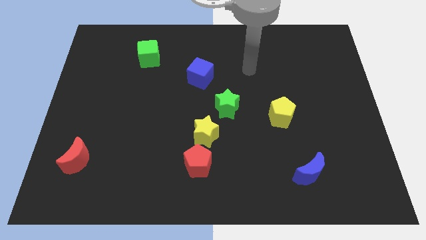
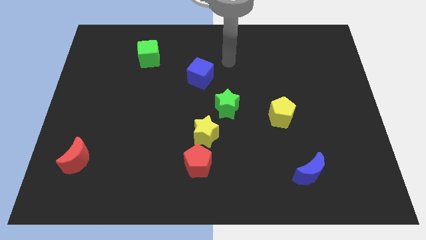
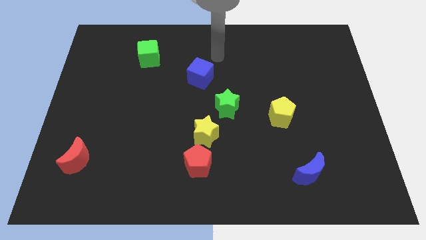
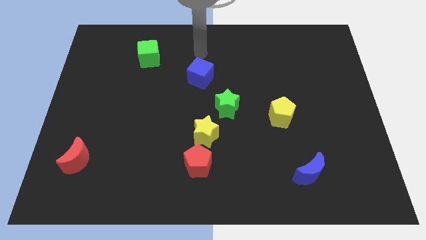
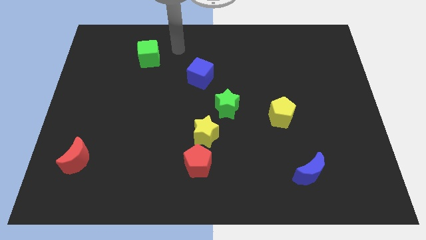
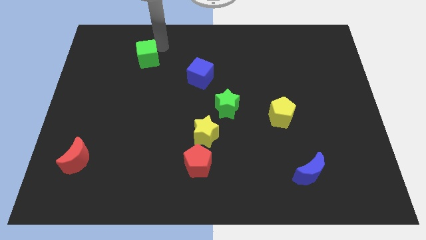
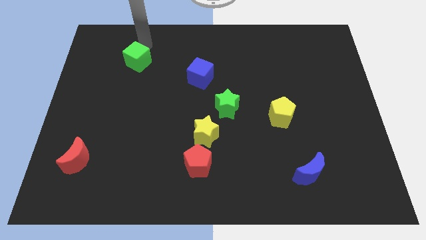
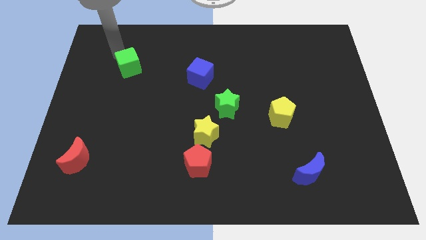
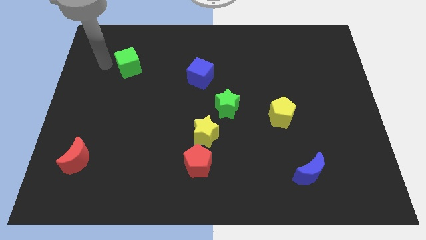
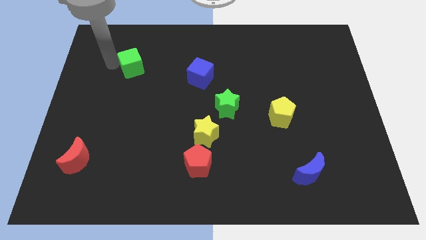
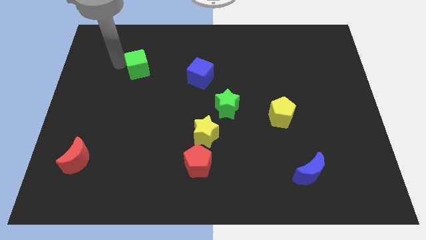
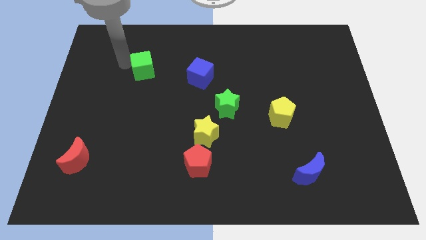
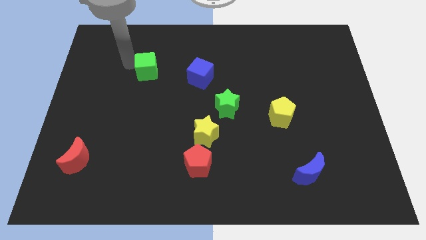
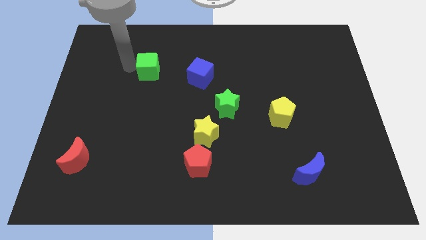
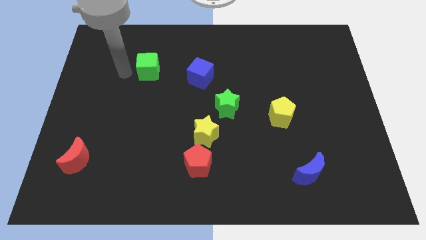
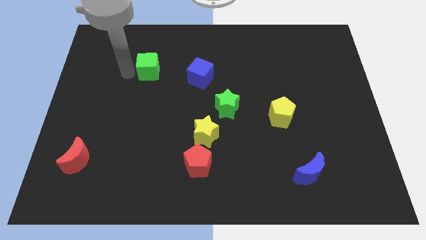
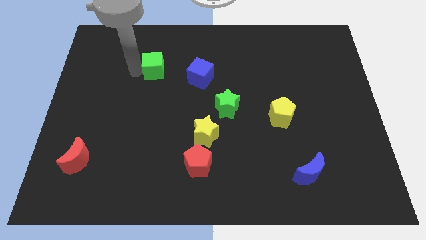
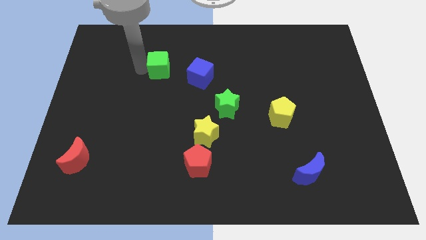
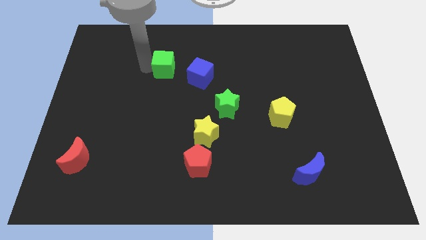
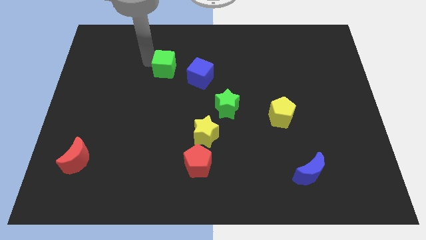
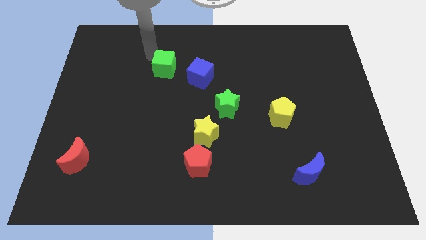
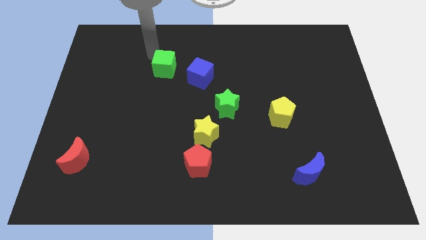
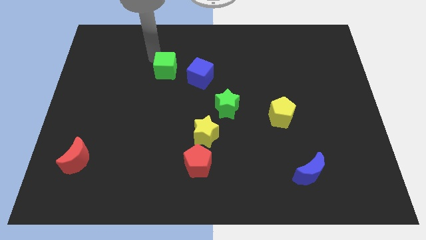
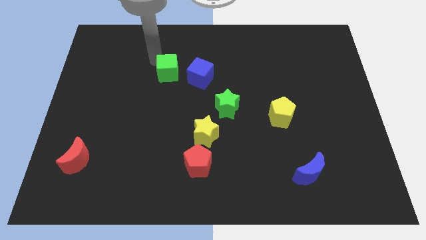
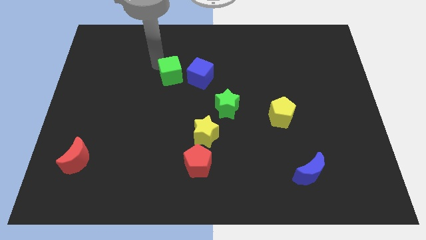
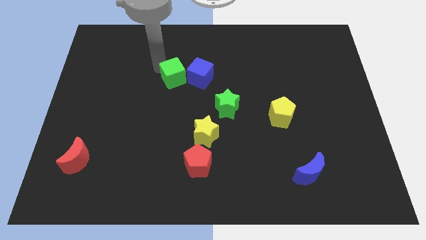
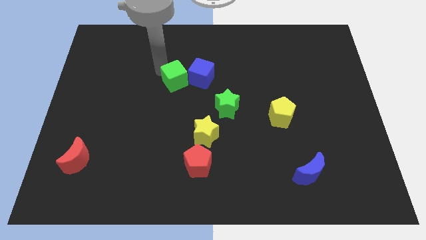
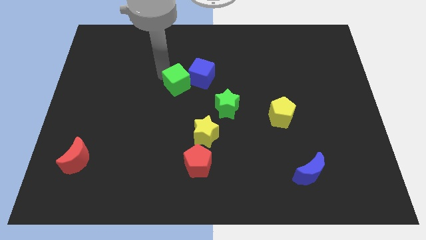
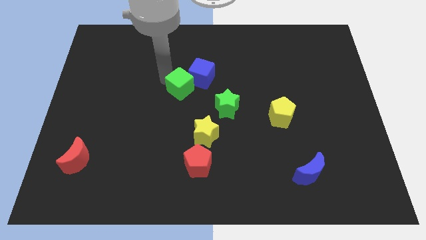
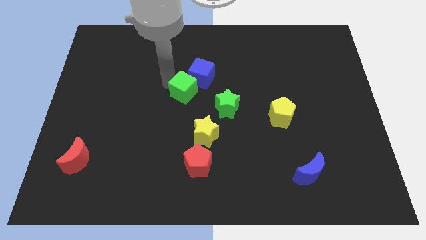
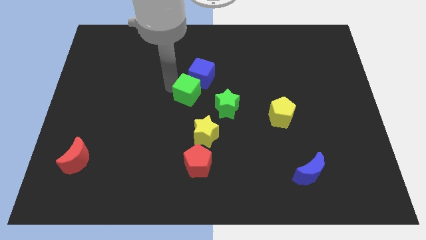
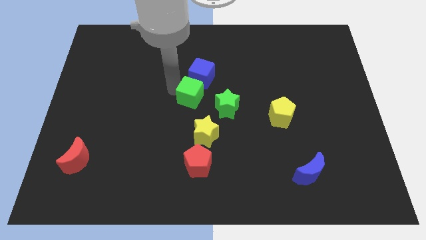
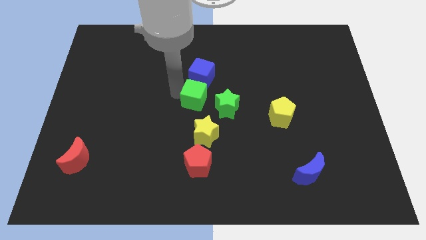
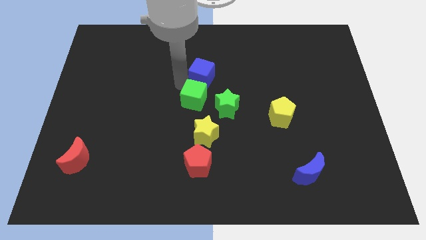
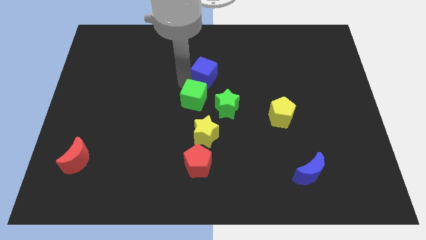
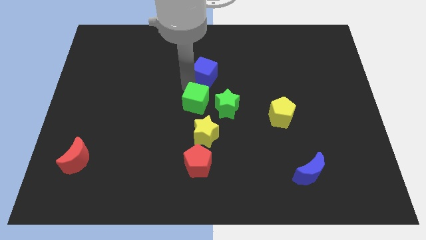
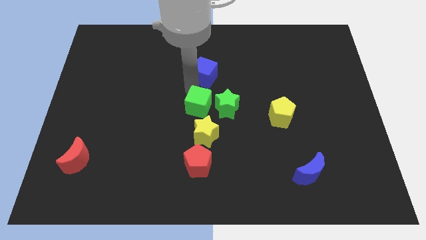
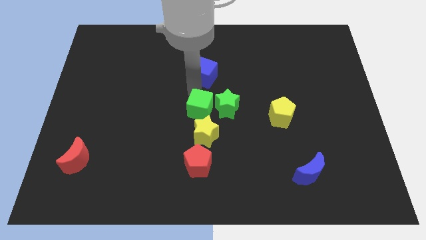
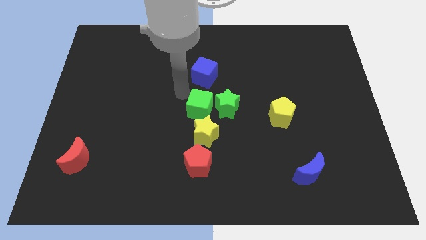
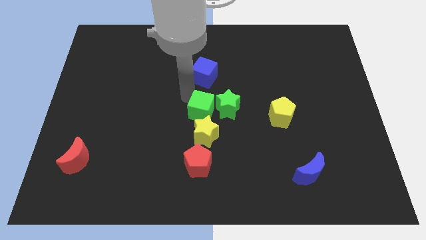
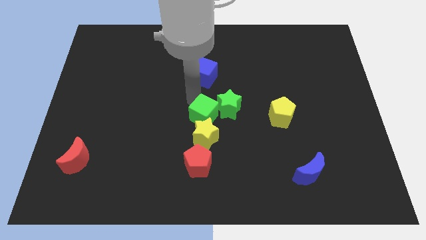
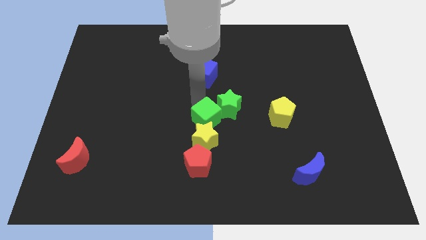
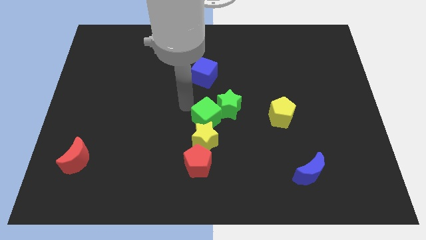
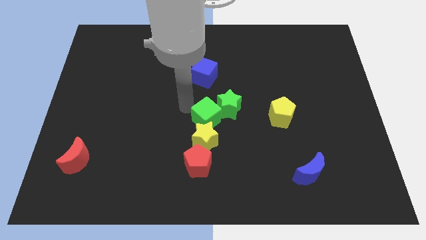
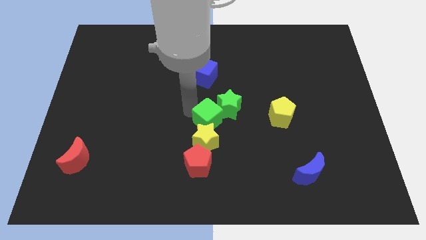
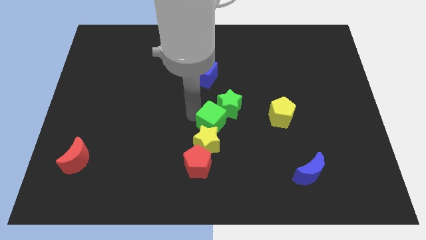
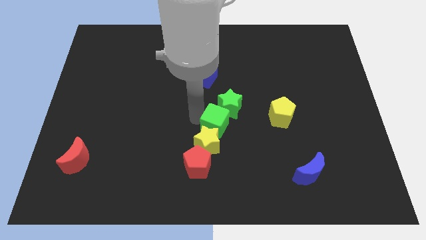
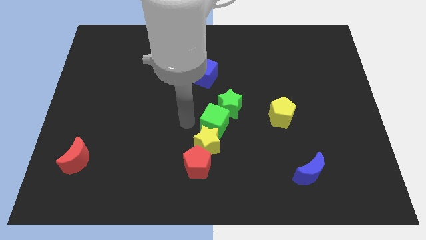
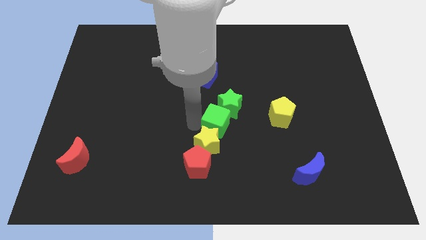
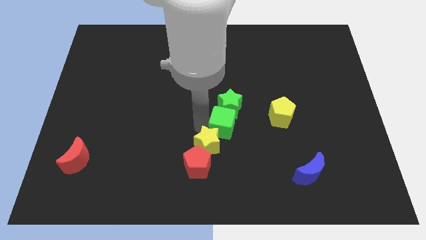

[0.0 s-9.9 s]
slide the green cube diagonally down and to the right of the green star

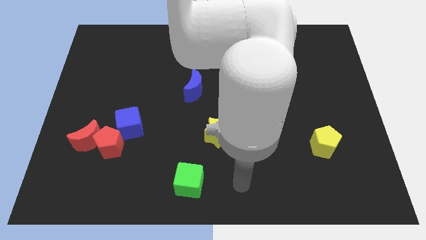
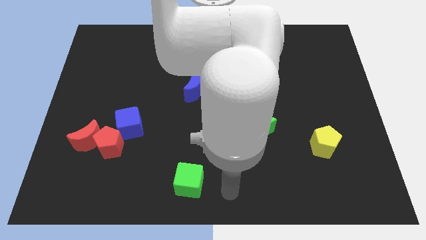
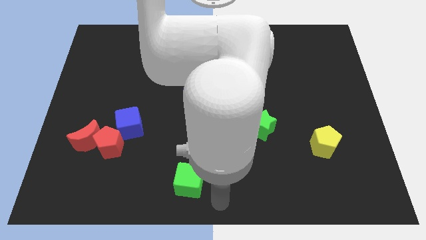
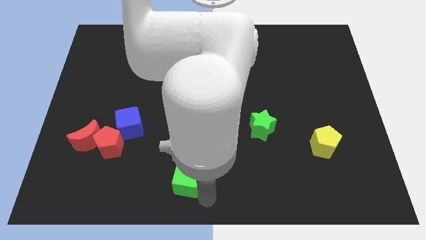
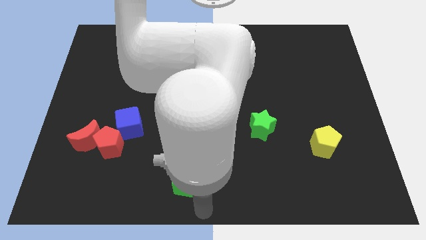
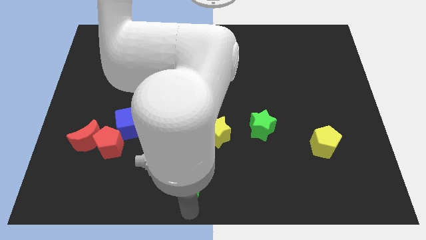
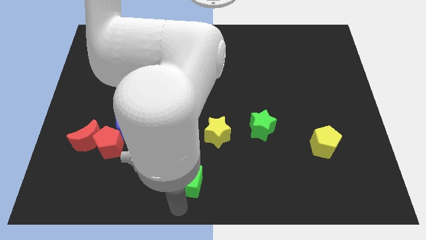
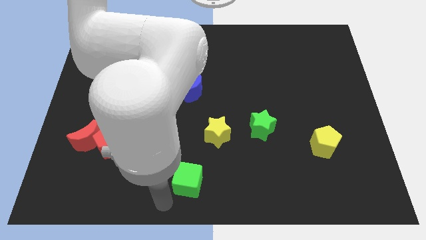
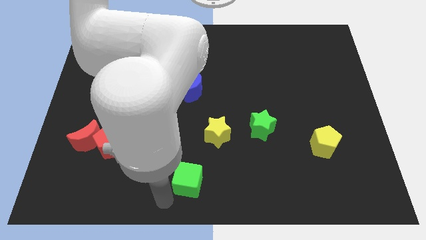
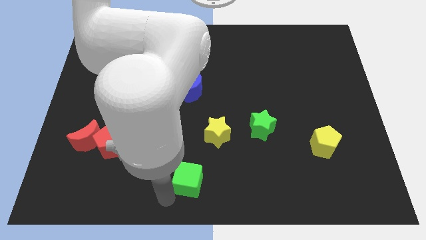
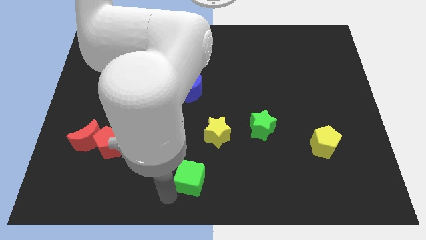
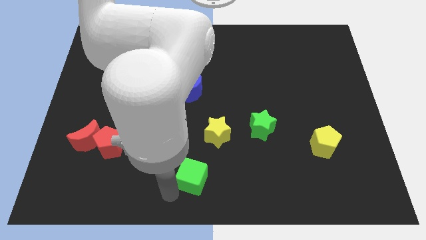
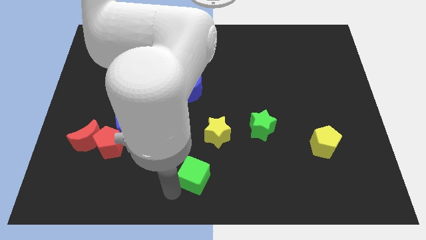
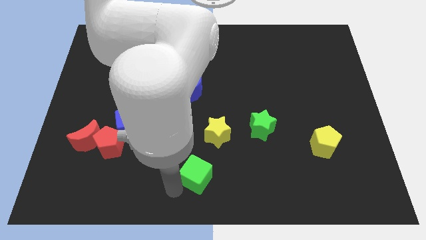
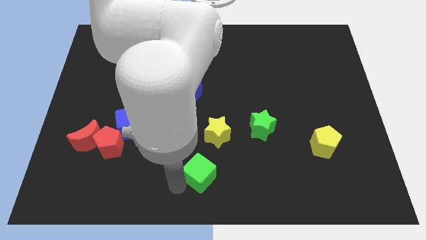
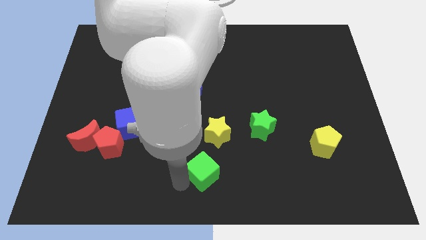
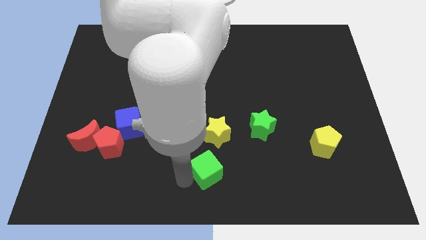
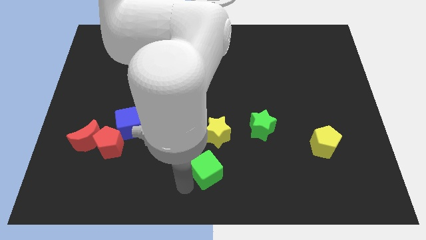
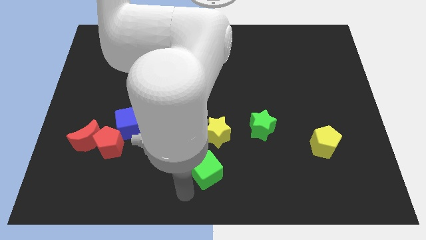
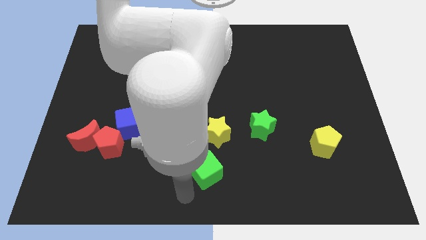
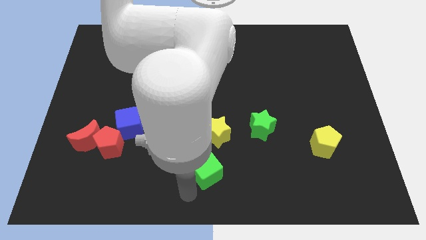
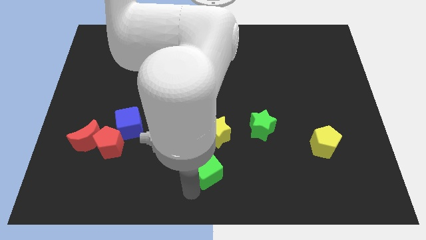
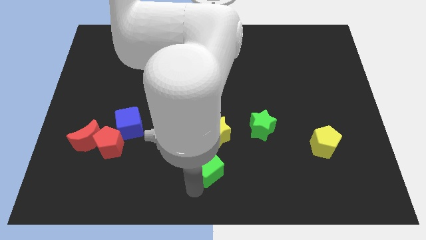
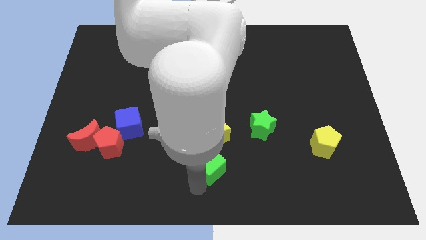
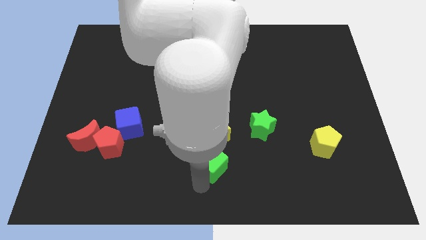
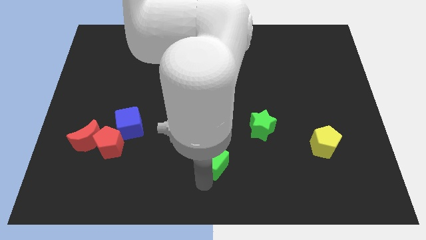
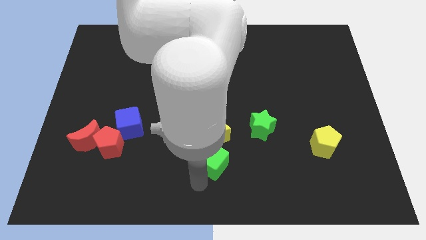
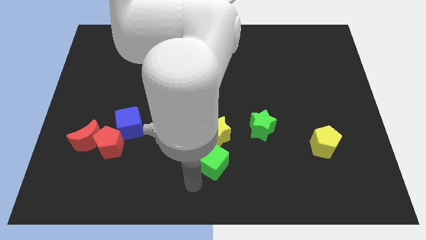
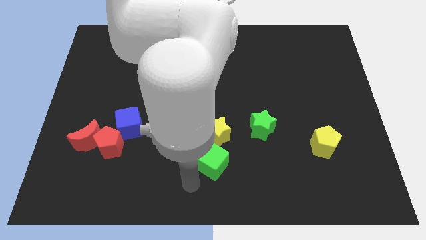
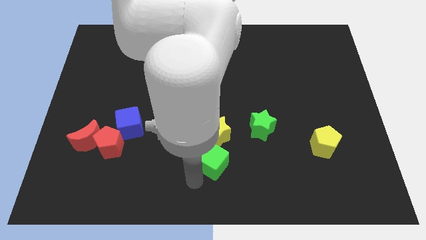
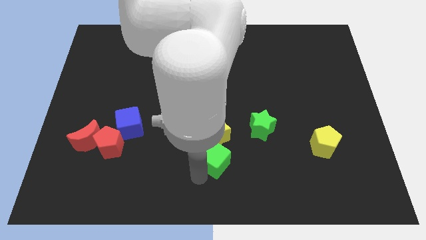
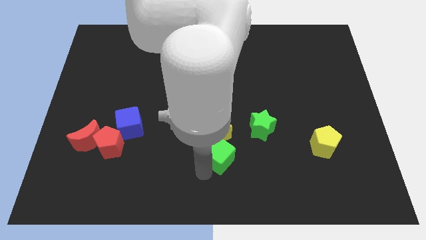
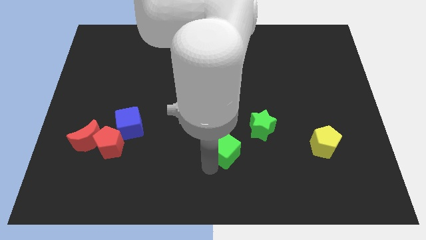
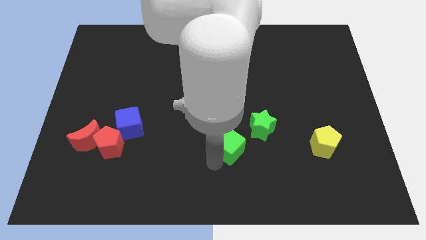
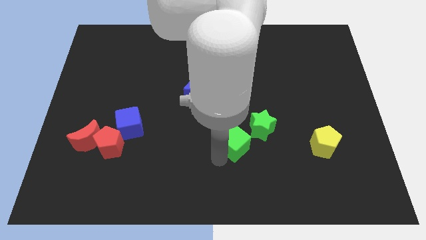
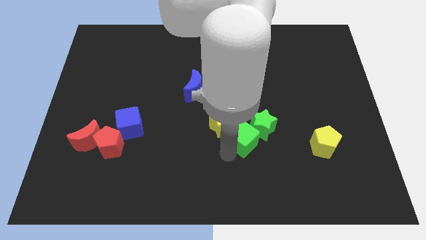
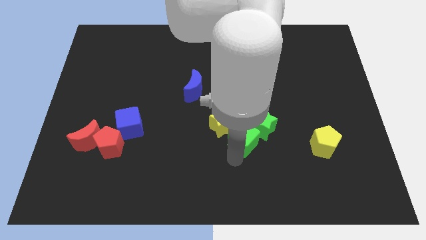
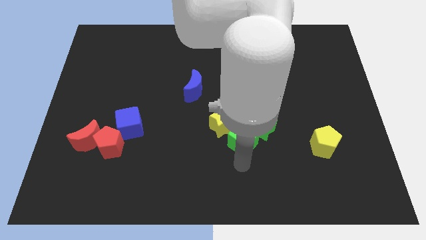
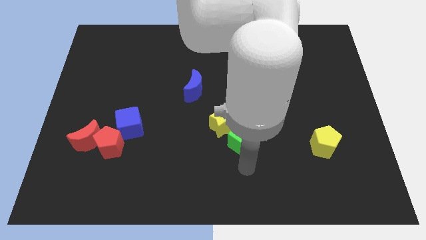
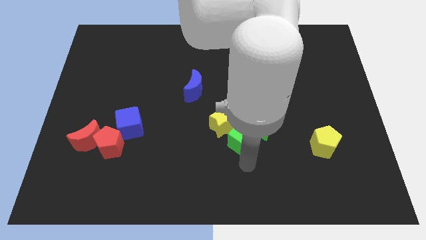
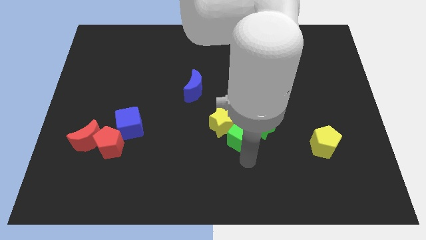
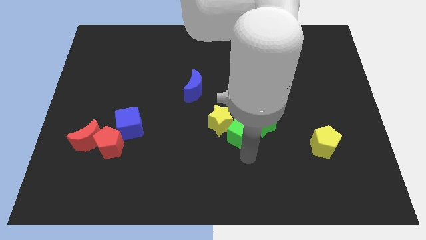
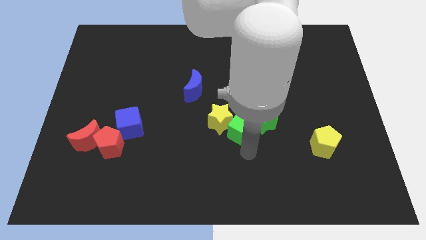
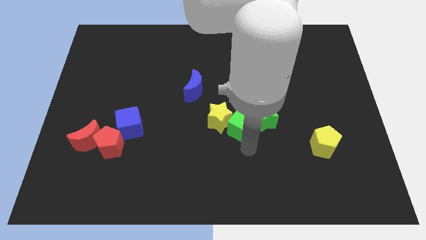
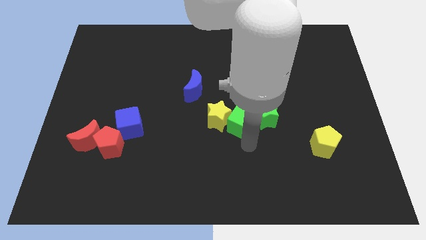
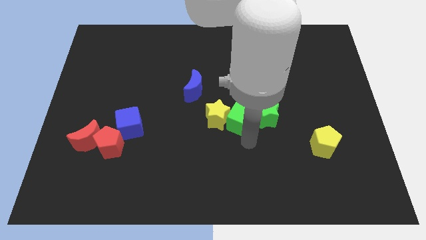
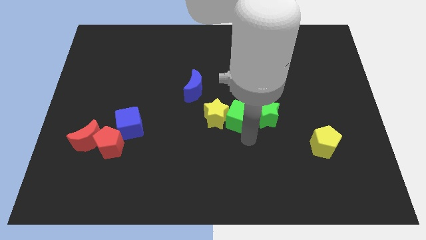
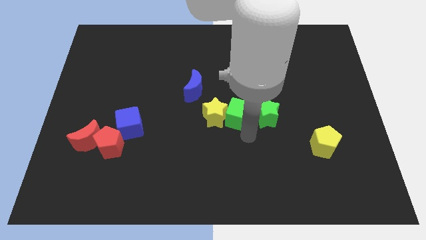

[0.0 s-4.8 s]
move the green cube to the top left of the green star
